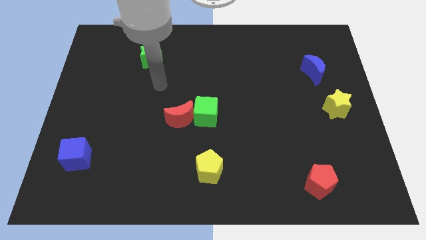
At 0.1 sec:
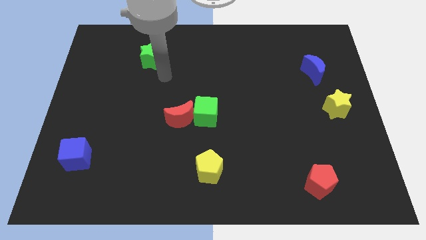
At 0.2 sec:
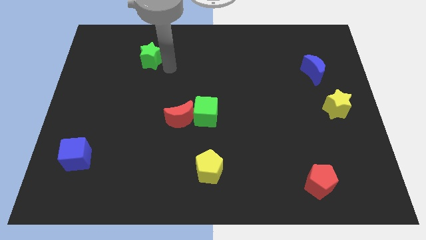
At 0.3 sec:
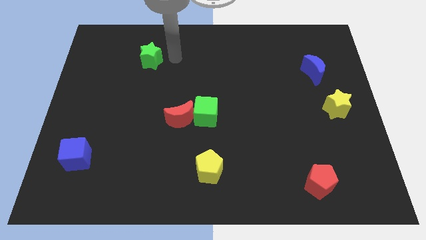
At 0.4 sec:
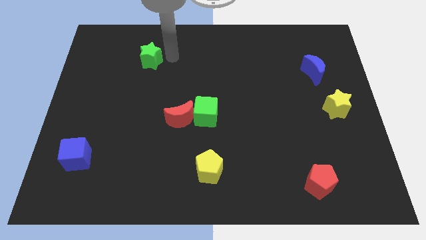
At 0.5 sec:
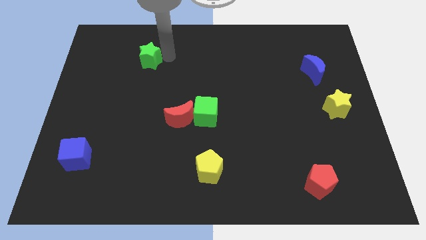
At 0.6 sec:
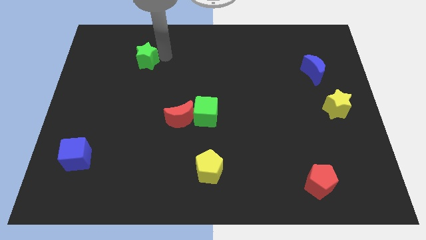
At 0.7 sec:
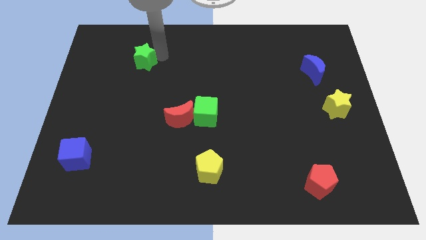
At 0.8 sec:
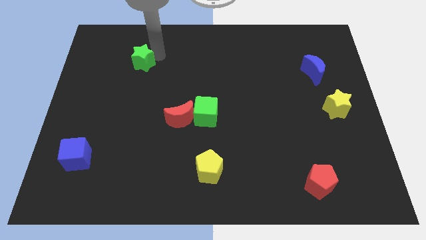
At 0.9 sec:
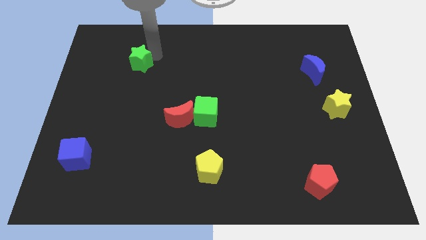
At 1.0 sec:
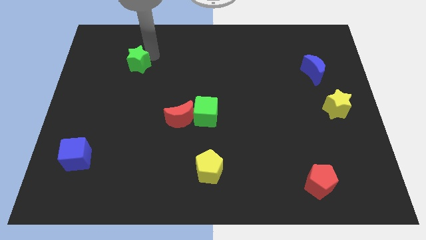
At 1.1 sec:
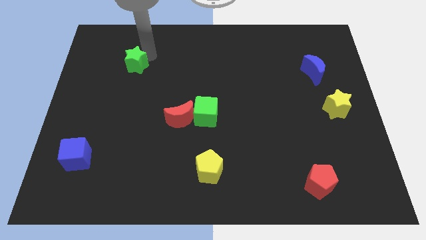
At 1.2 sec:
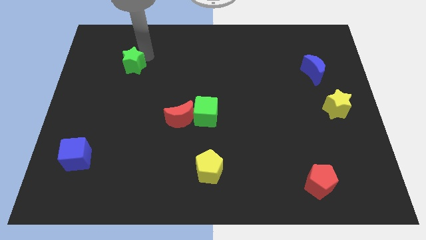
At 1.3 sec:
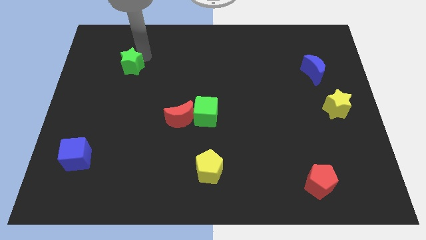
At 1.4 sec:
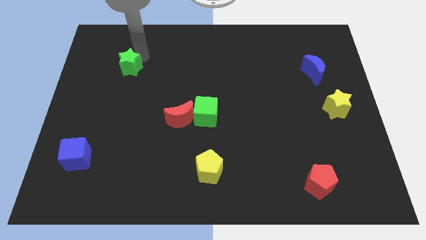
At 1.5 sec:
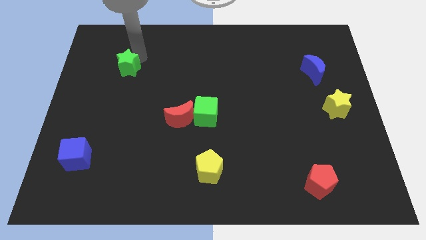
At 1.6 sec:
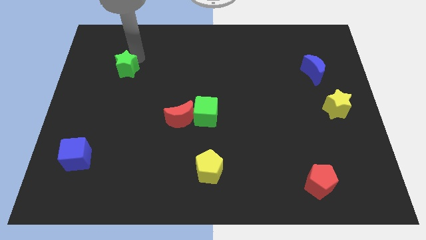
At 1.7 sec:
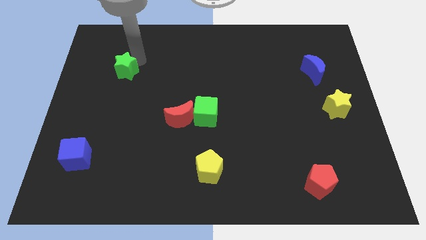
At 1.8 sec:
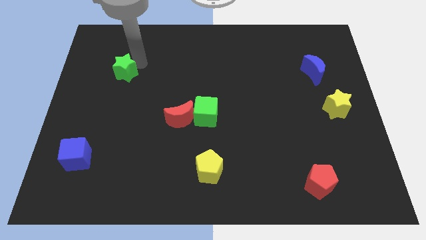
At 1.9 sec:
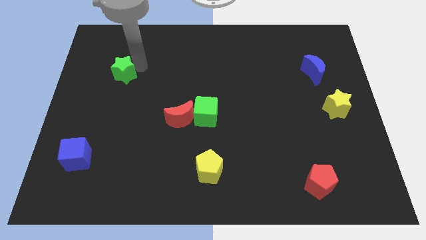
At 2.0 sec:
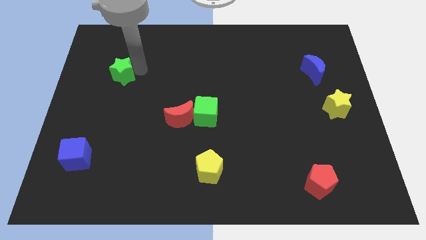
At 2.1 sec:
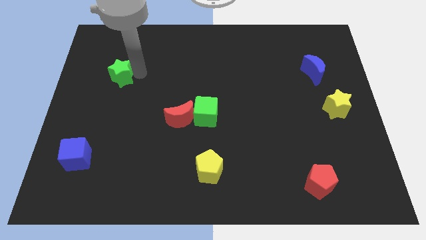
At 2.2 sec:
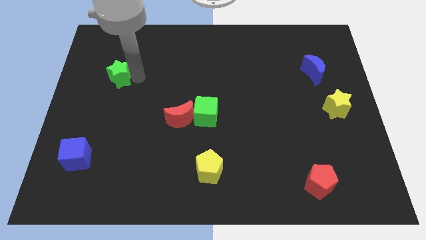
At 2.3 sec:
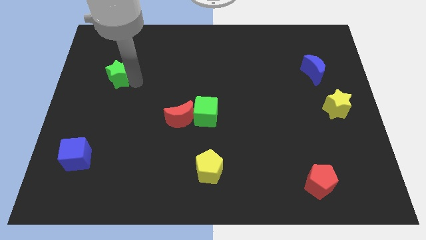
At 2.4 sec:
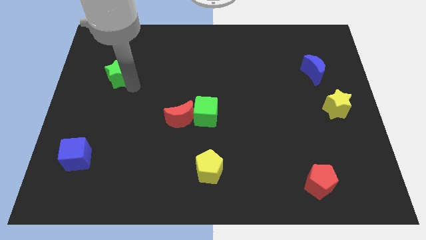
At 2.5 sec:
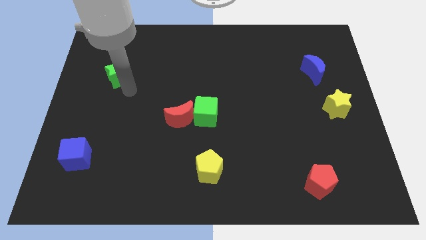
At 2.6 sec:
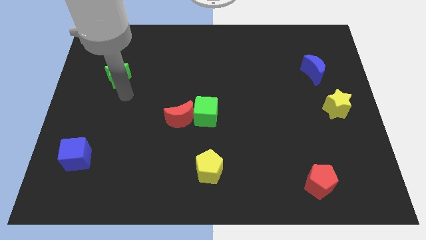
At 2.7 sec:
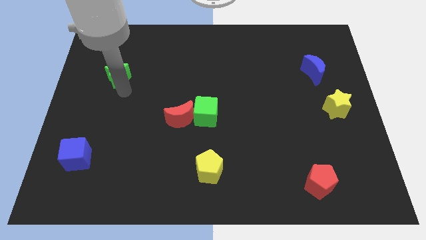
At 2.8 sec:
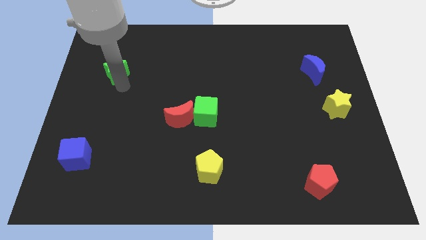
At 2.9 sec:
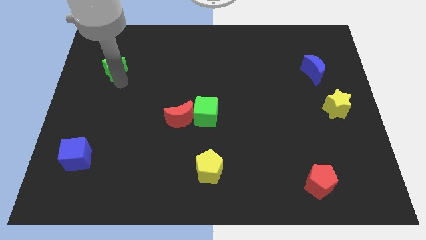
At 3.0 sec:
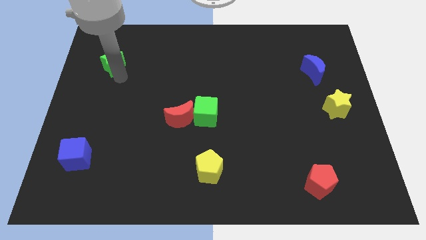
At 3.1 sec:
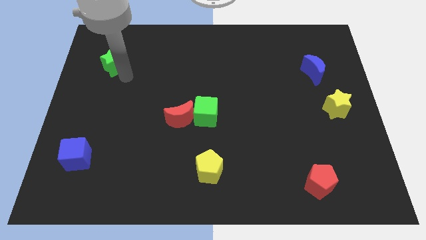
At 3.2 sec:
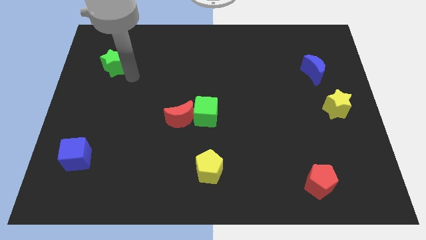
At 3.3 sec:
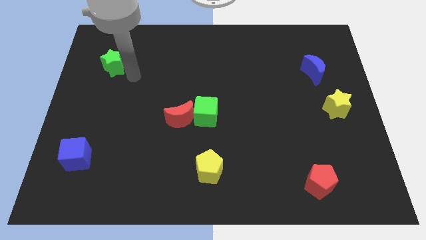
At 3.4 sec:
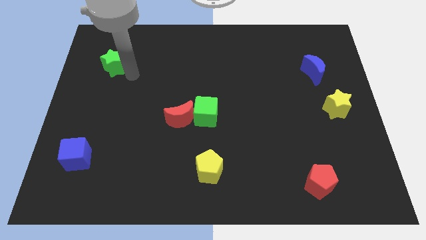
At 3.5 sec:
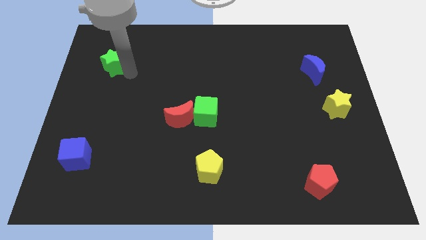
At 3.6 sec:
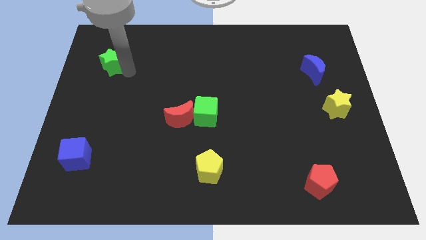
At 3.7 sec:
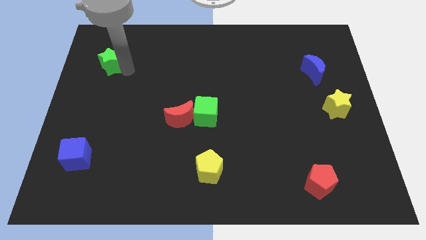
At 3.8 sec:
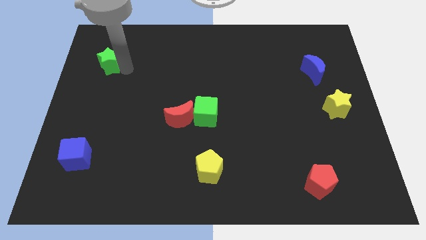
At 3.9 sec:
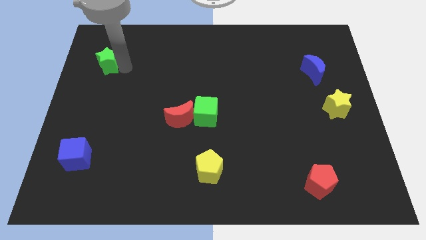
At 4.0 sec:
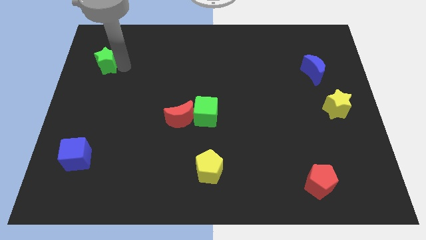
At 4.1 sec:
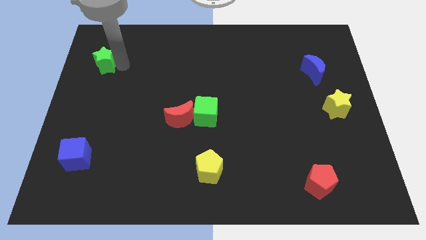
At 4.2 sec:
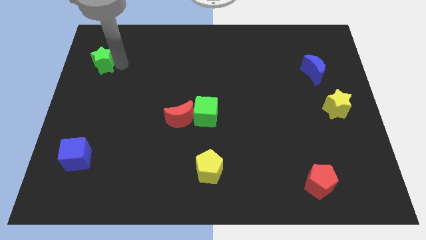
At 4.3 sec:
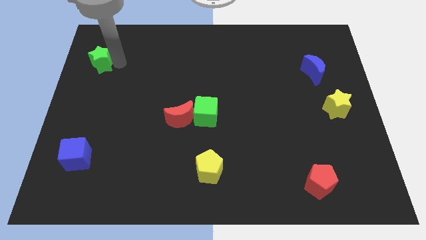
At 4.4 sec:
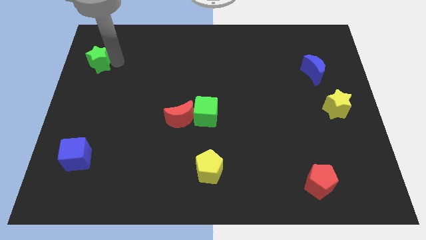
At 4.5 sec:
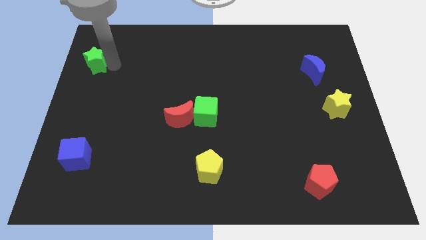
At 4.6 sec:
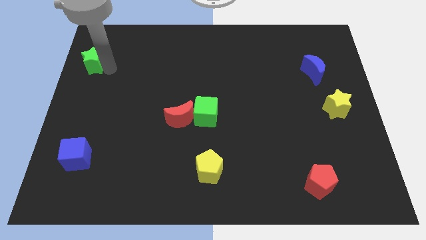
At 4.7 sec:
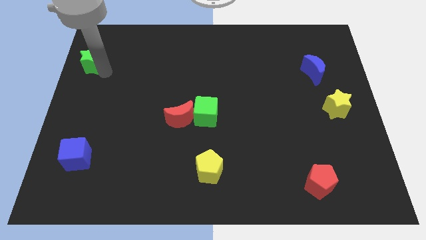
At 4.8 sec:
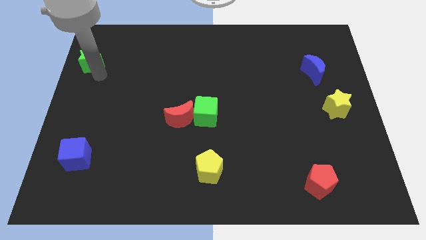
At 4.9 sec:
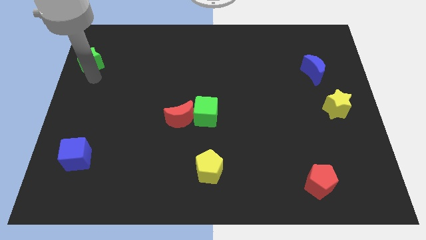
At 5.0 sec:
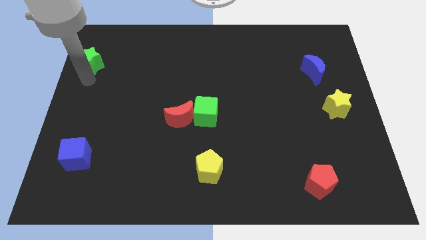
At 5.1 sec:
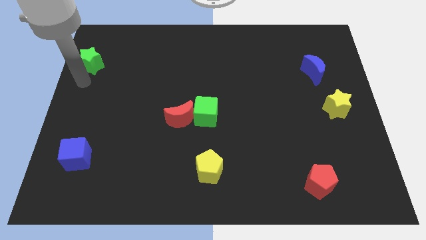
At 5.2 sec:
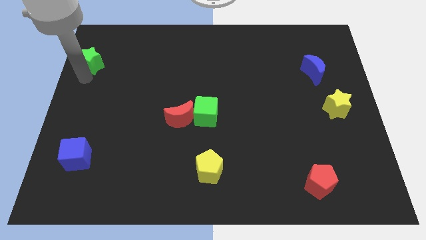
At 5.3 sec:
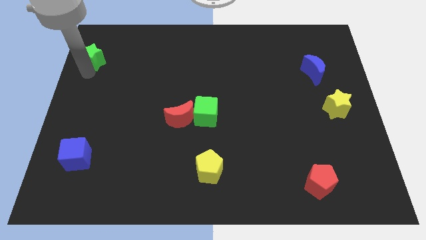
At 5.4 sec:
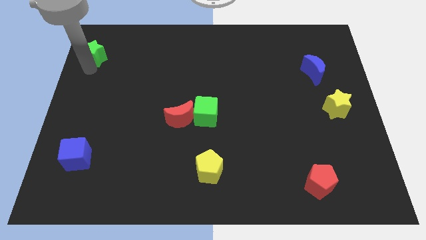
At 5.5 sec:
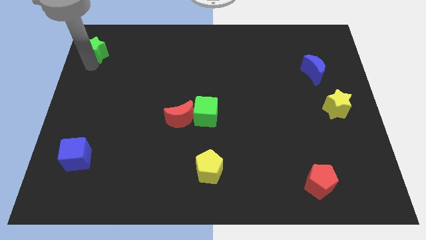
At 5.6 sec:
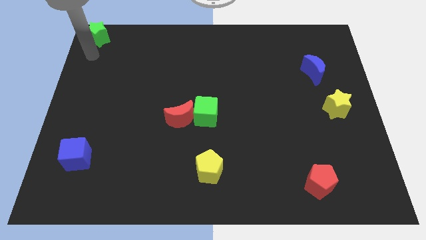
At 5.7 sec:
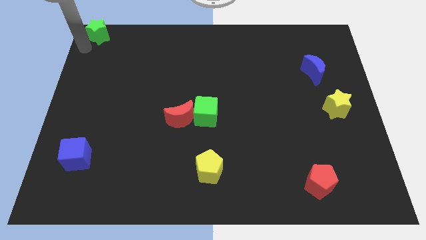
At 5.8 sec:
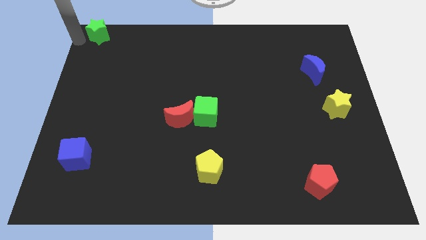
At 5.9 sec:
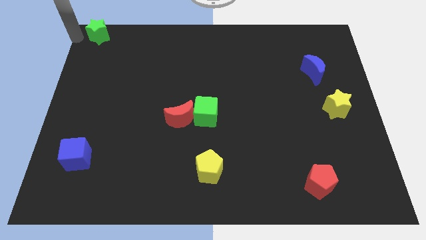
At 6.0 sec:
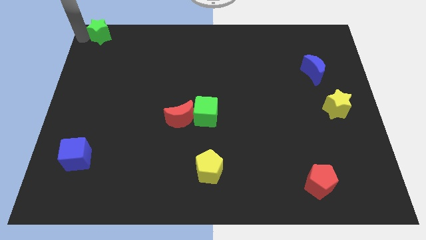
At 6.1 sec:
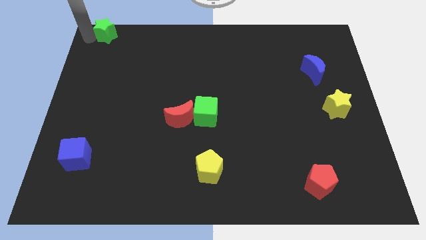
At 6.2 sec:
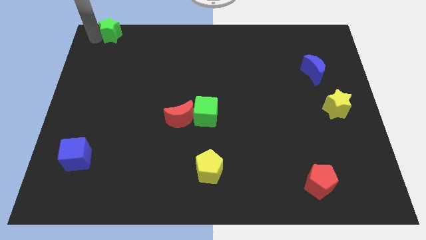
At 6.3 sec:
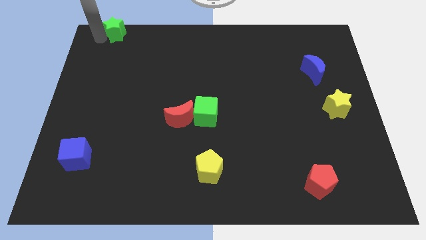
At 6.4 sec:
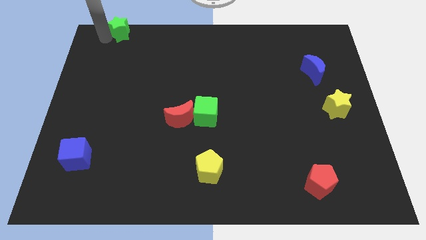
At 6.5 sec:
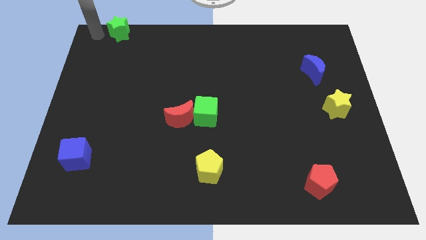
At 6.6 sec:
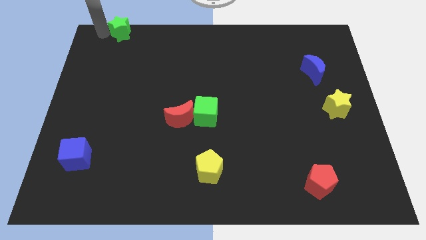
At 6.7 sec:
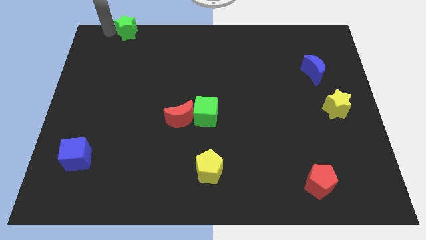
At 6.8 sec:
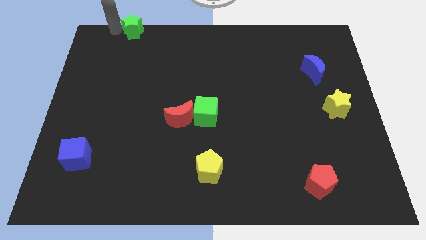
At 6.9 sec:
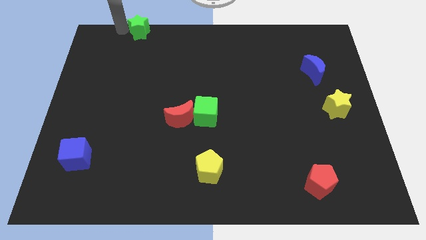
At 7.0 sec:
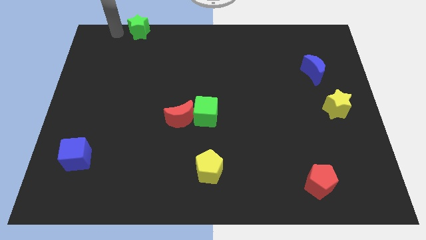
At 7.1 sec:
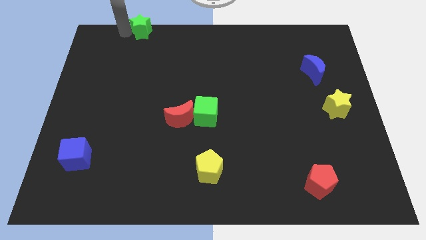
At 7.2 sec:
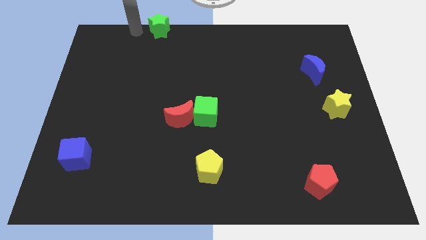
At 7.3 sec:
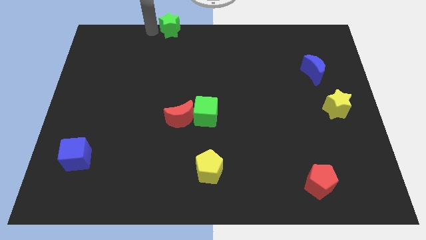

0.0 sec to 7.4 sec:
push the green star to the top side
